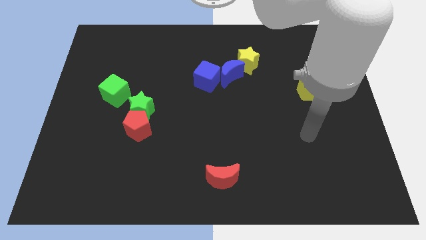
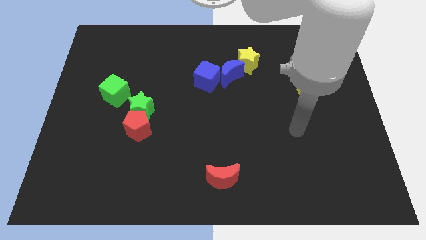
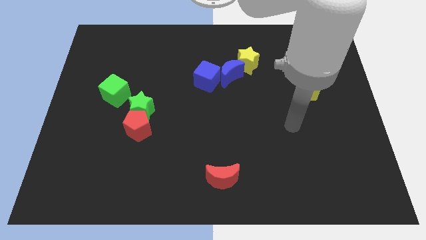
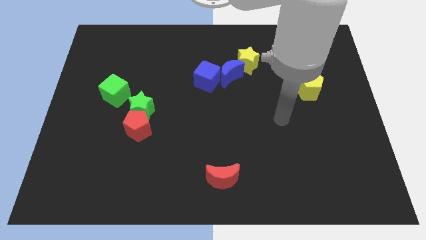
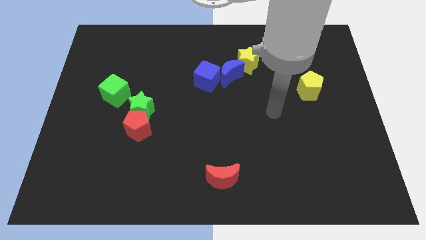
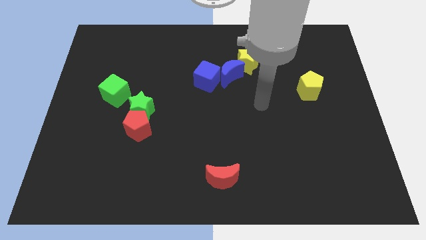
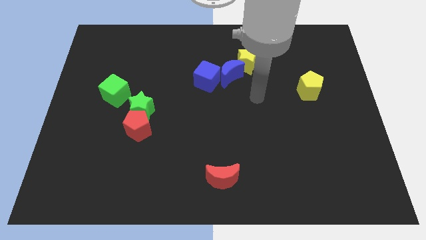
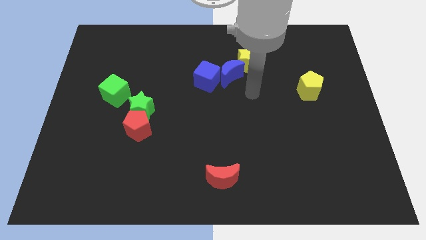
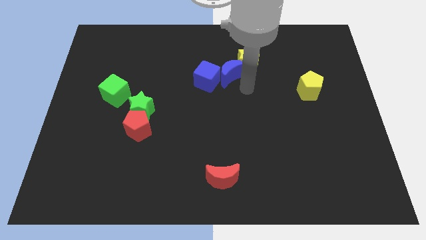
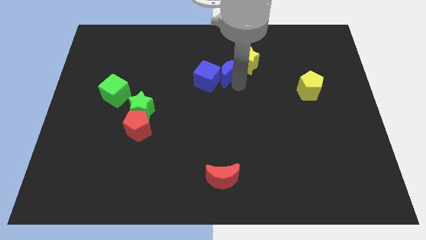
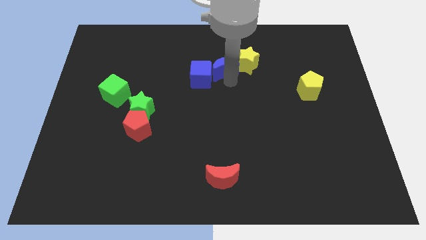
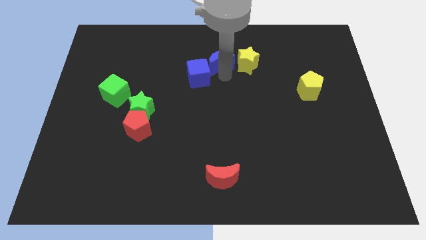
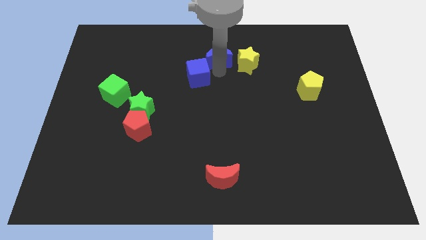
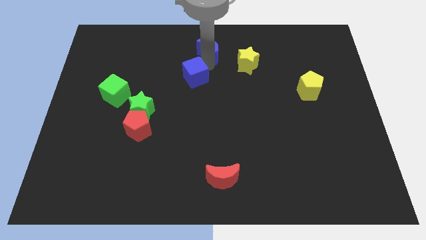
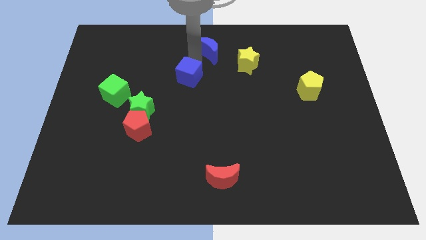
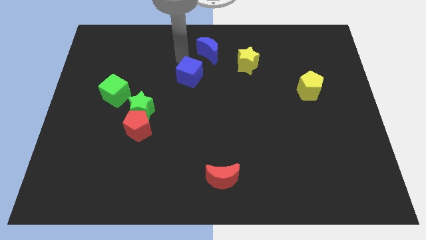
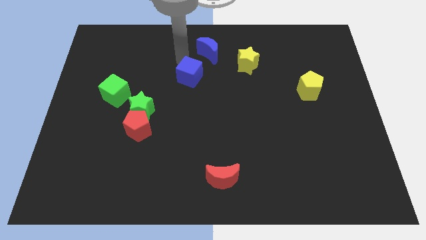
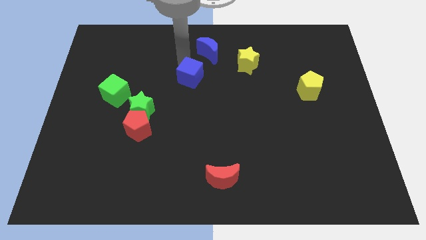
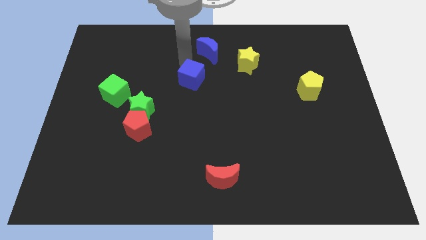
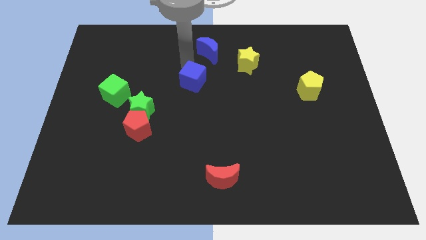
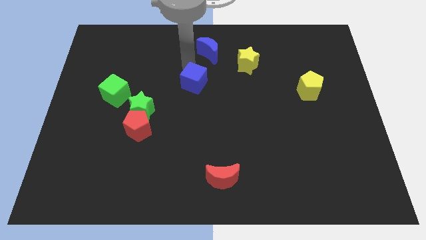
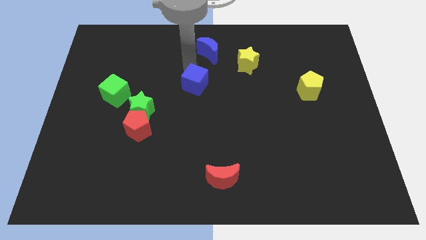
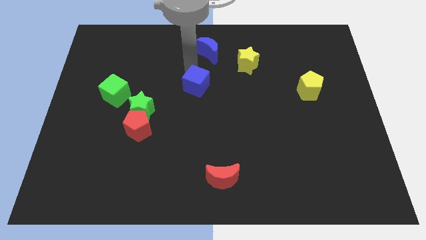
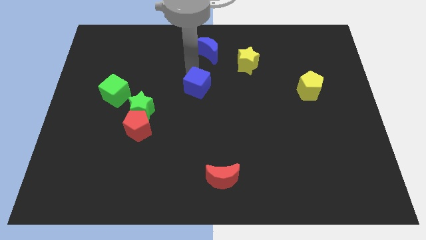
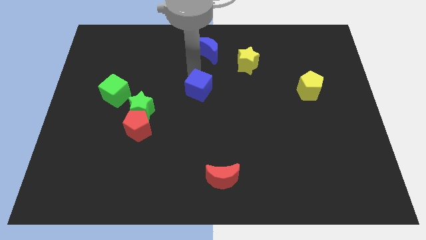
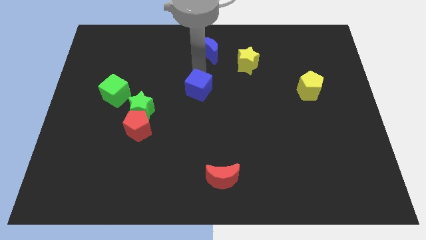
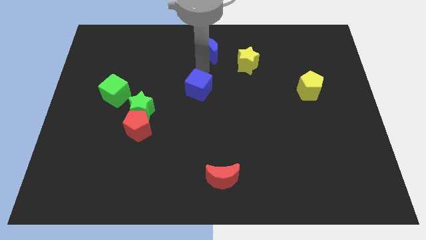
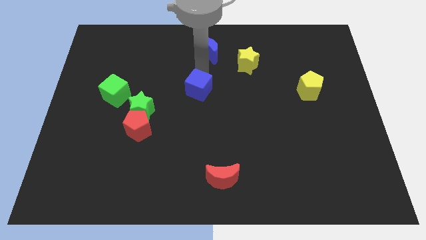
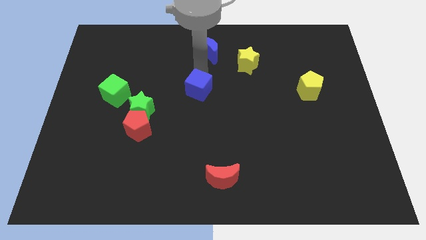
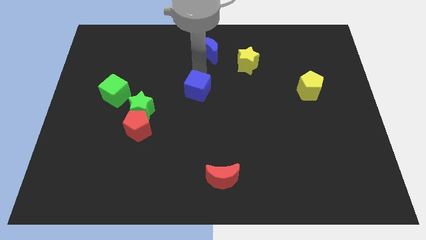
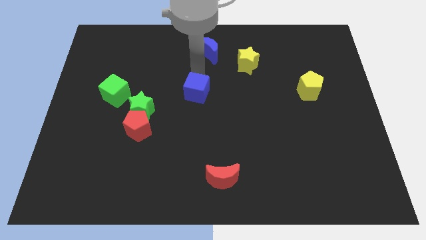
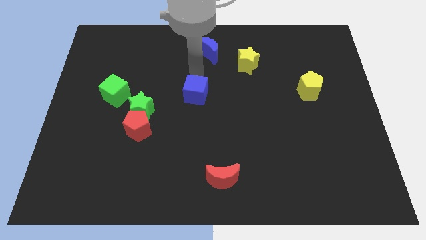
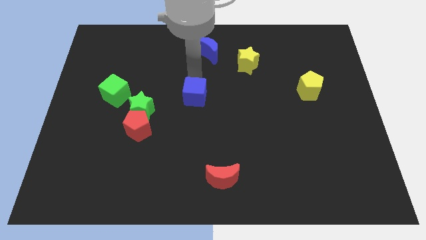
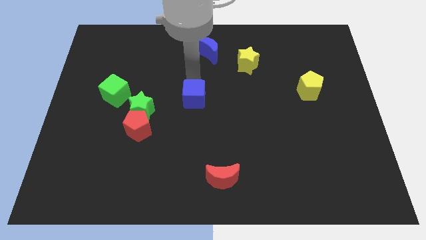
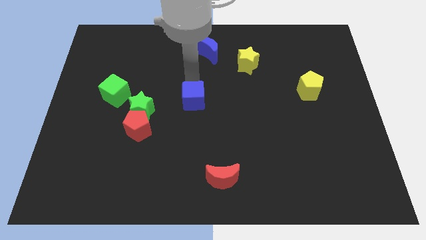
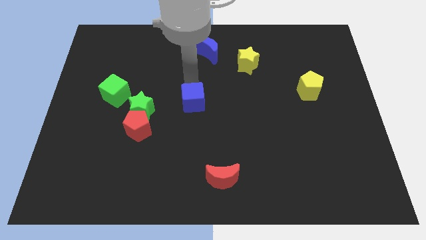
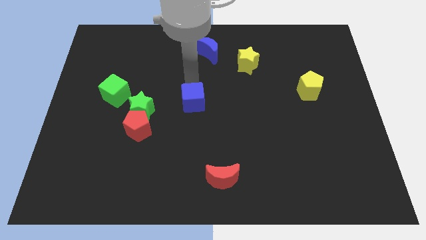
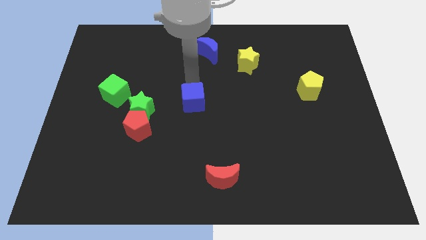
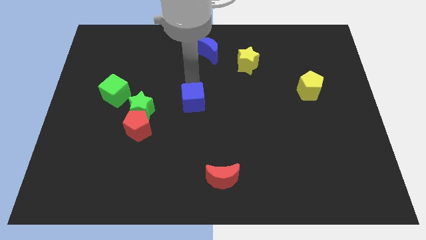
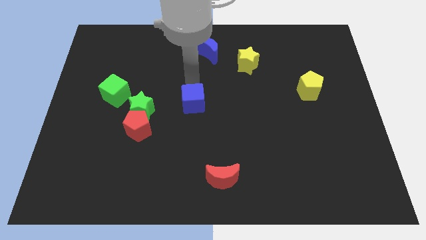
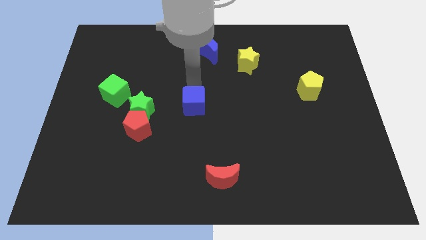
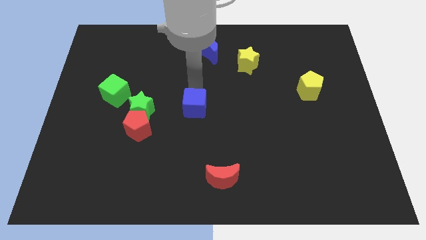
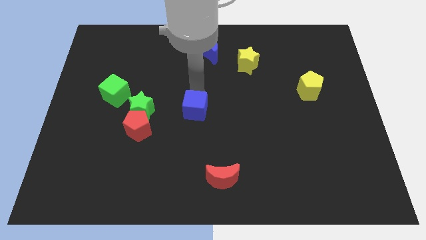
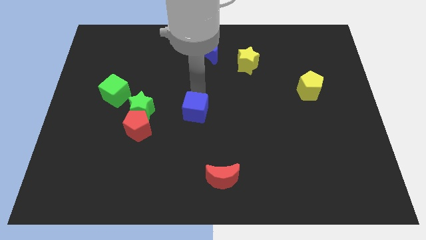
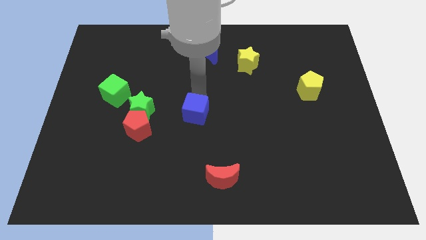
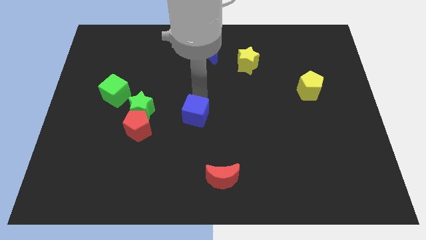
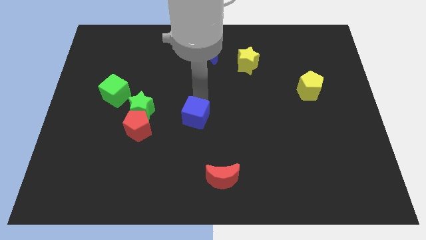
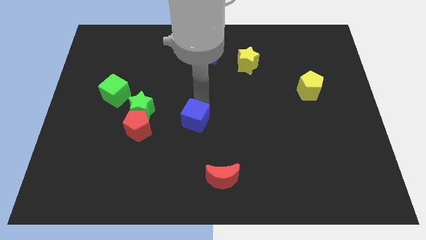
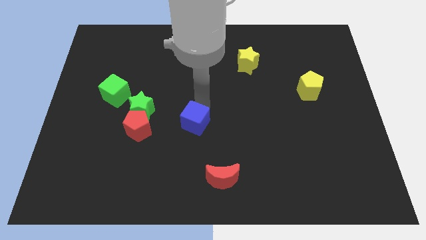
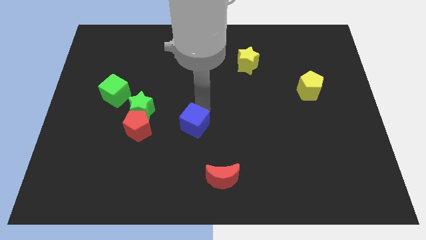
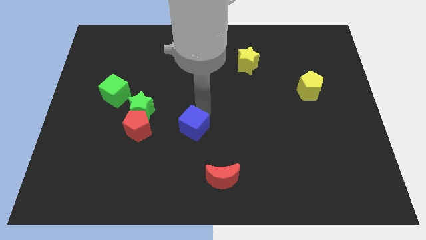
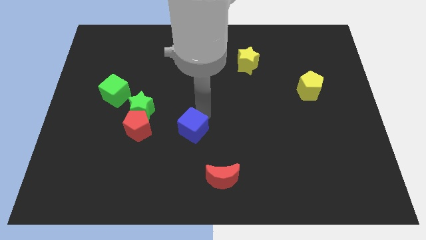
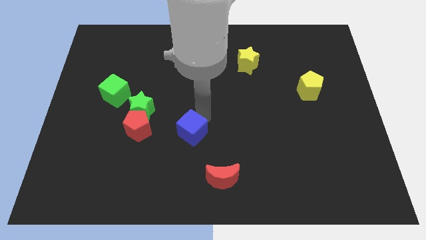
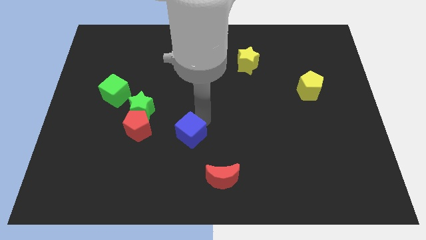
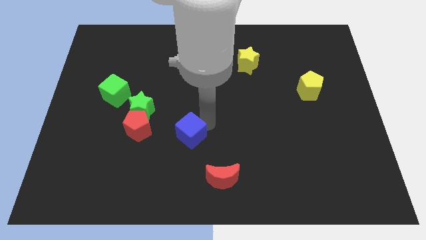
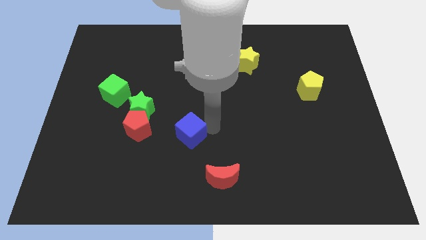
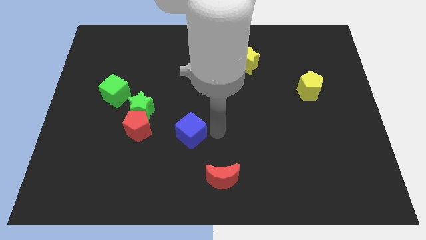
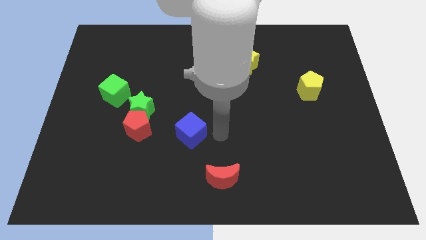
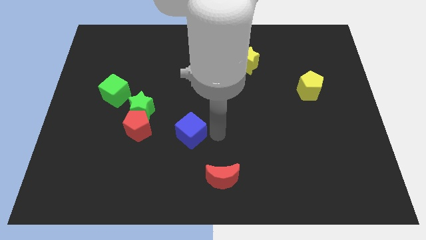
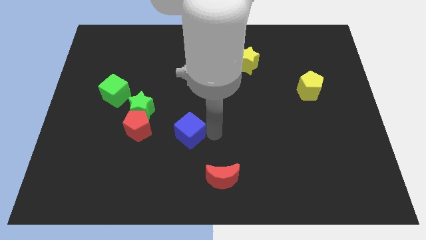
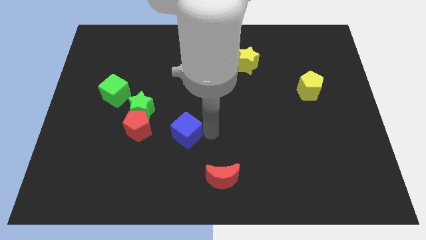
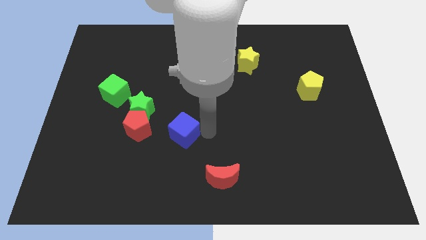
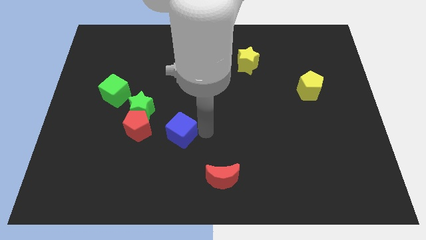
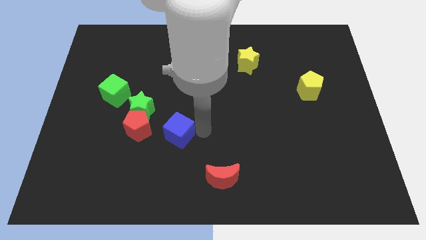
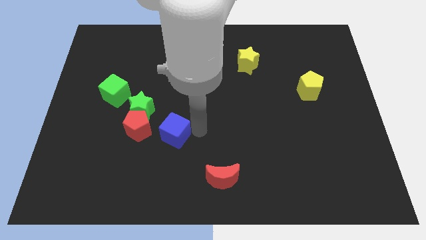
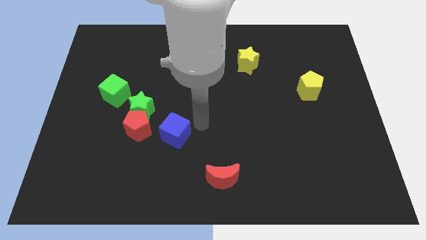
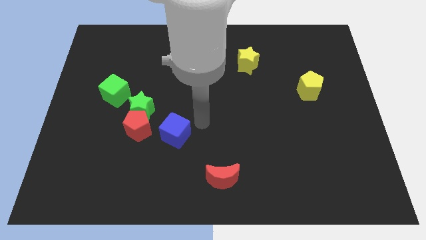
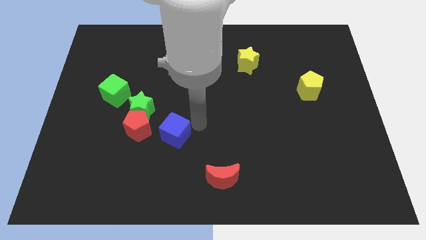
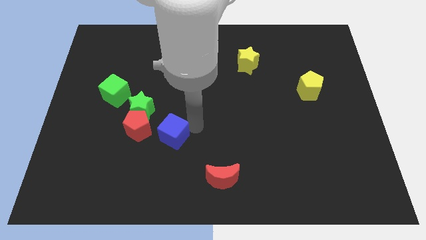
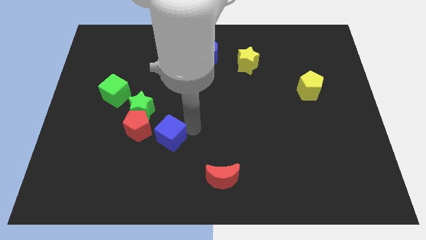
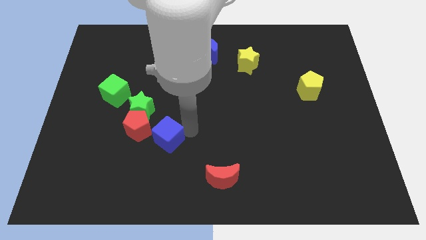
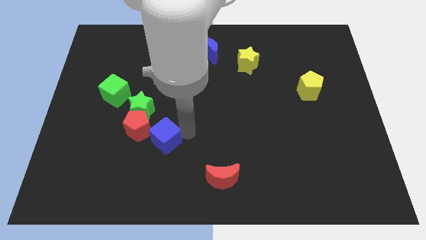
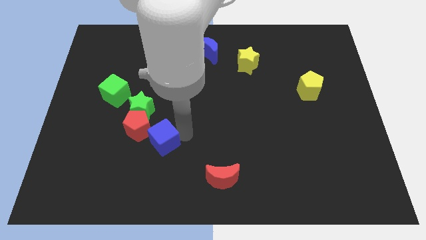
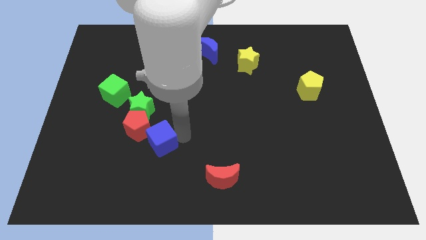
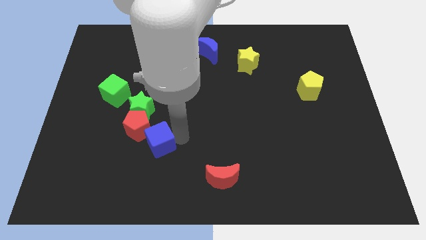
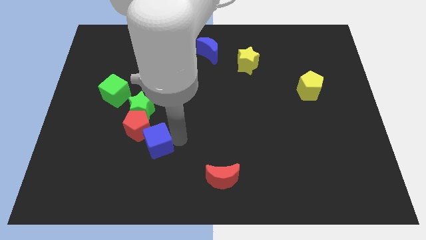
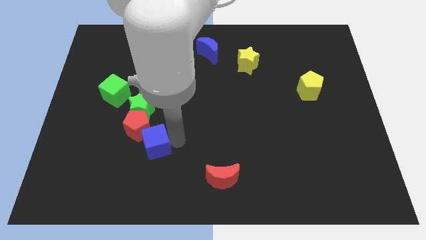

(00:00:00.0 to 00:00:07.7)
move the blue cube diagonally downwards and left

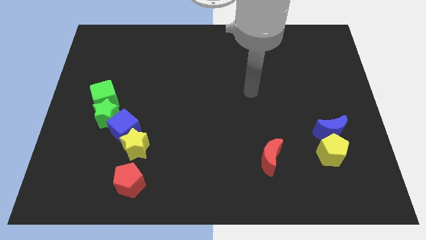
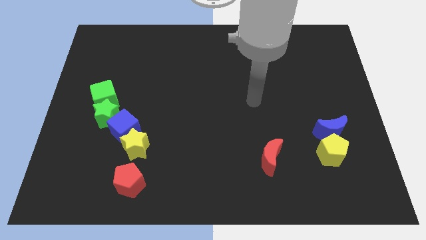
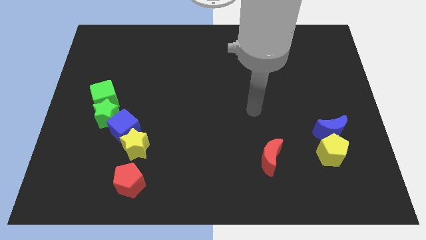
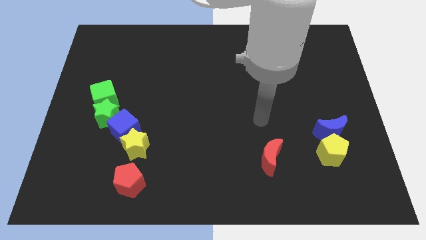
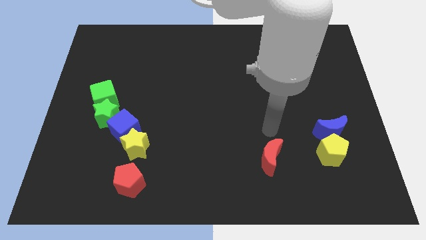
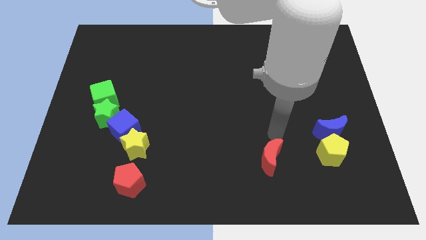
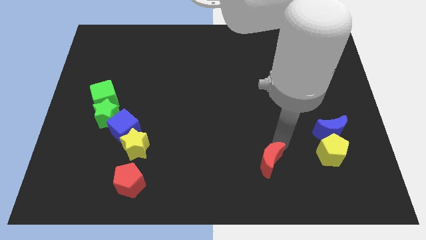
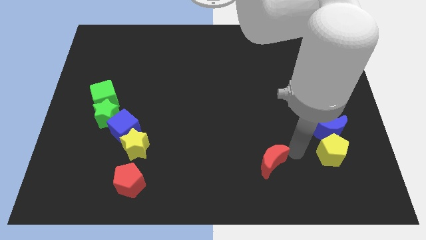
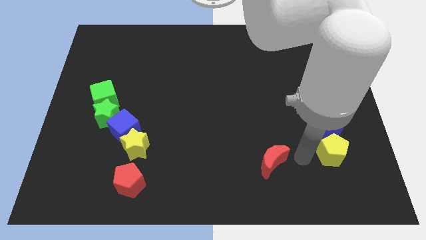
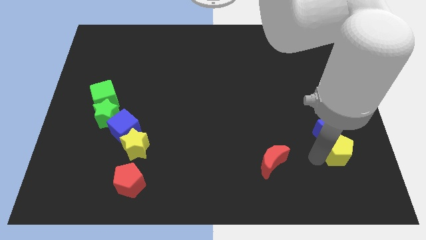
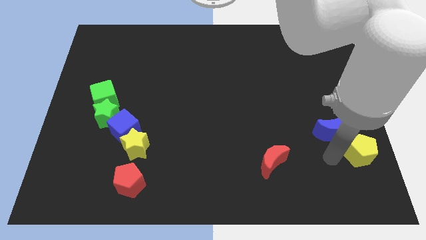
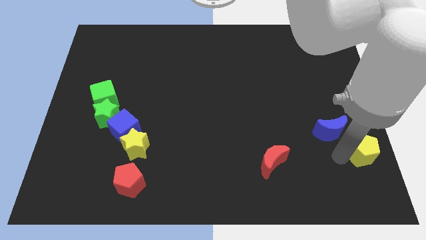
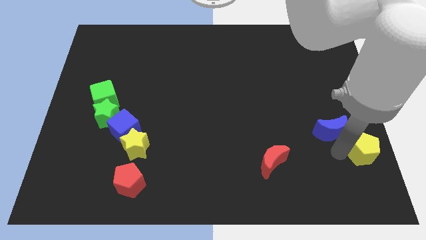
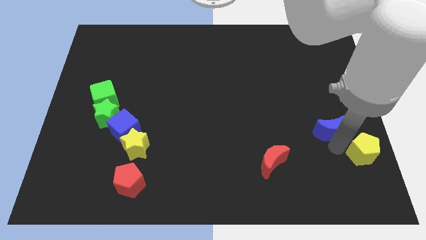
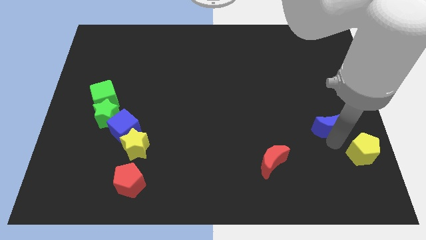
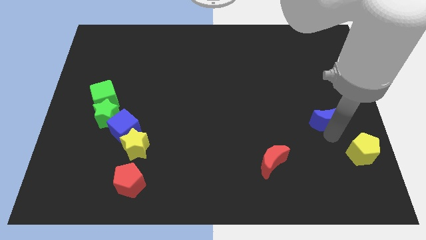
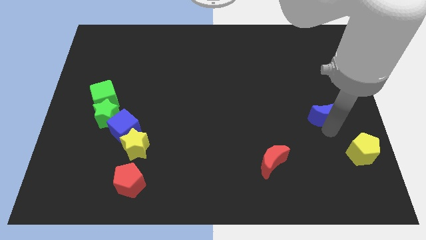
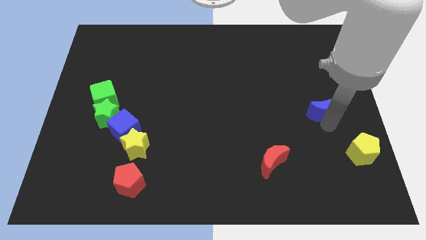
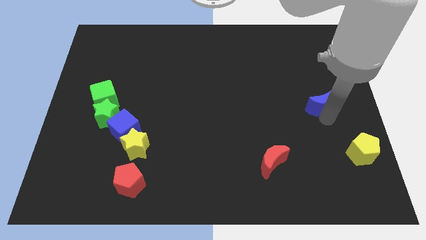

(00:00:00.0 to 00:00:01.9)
push the blue moon slightly up
